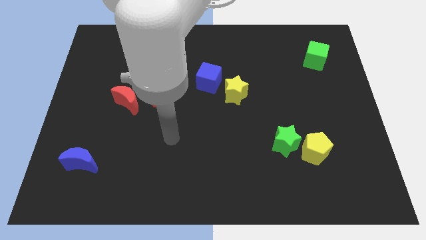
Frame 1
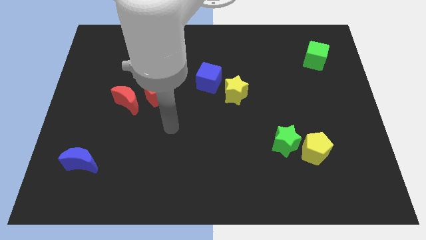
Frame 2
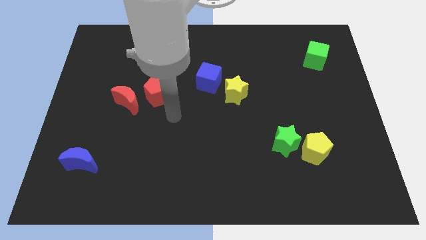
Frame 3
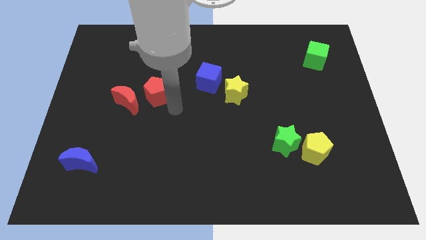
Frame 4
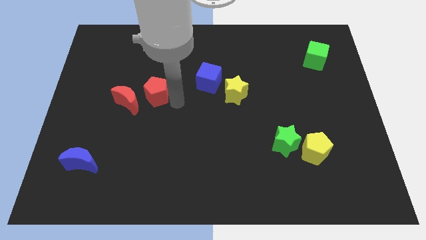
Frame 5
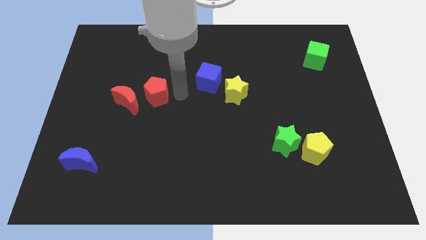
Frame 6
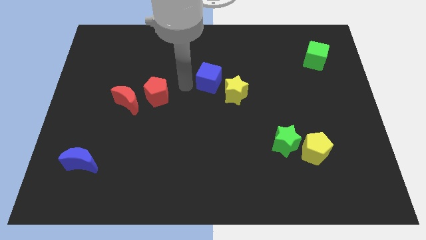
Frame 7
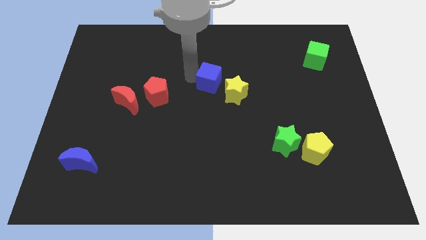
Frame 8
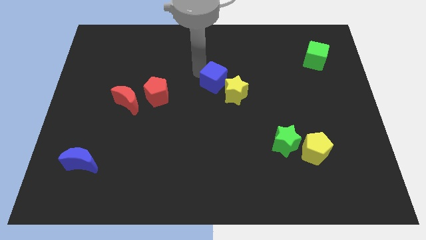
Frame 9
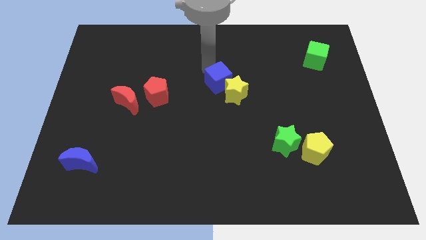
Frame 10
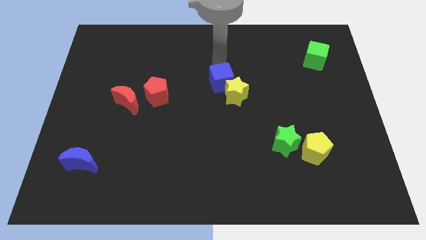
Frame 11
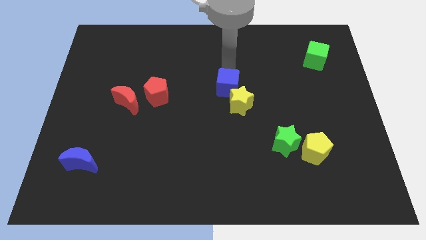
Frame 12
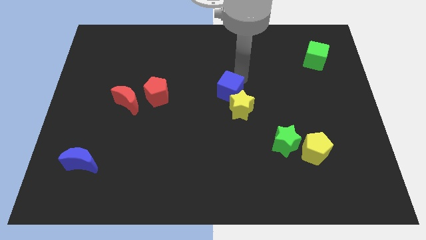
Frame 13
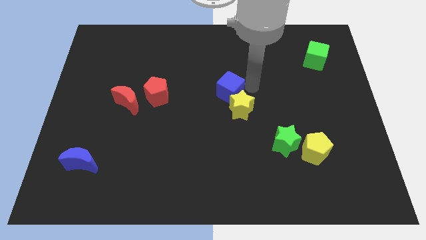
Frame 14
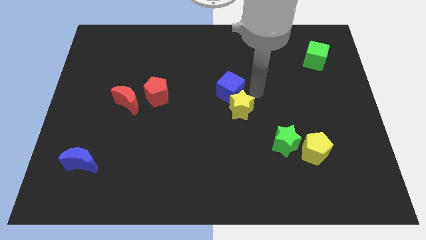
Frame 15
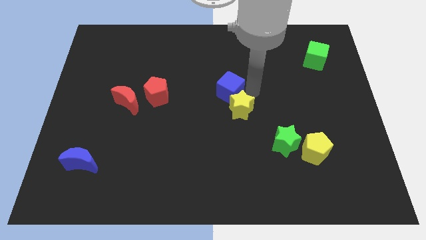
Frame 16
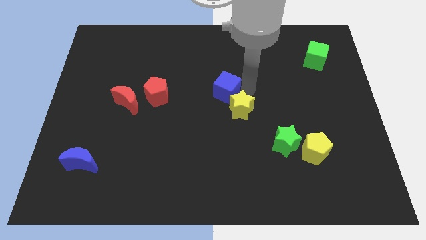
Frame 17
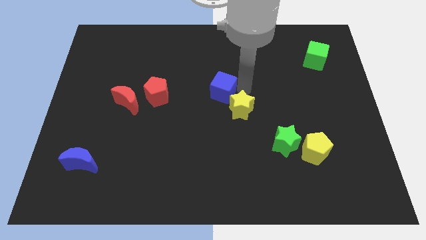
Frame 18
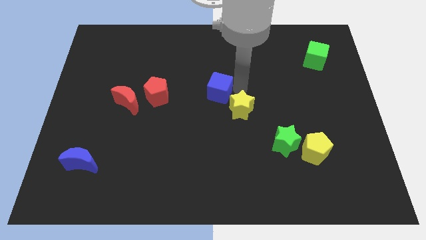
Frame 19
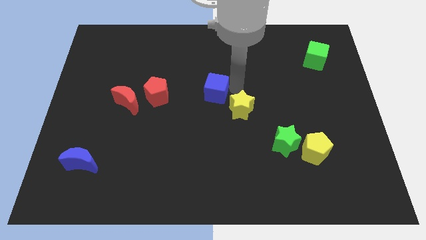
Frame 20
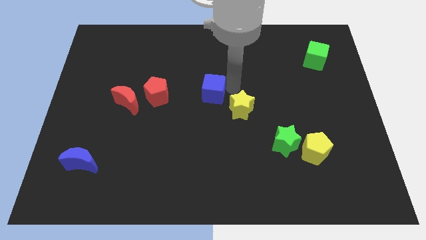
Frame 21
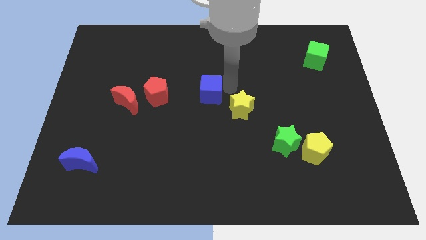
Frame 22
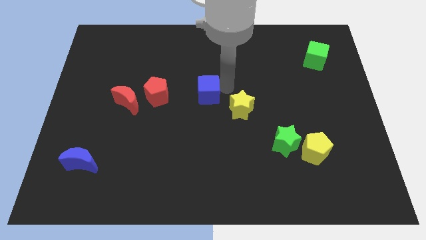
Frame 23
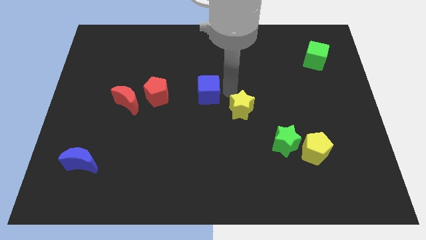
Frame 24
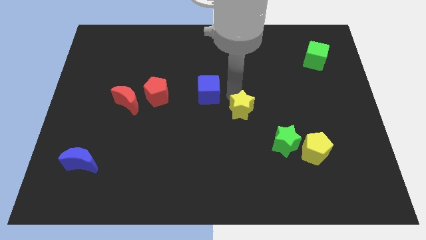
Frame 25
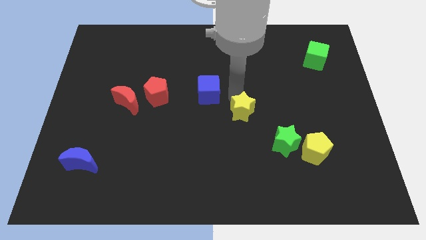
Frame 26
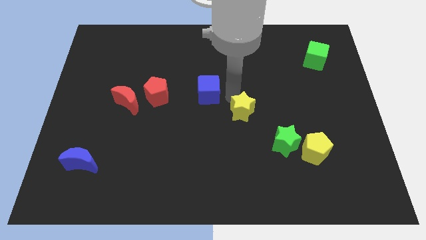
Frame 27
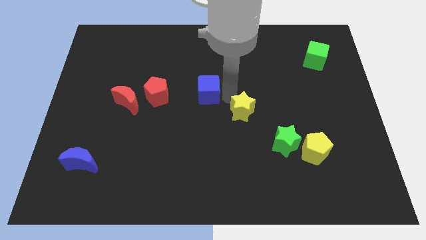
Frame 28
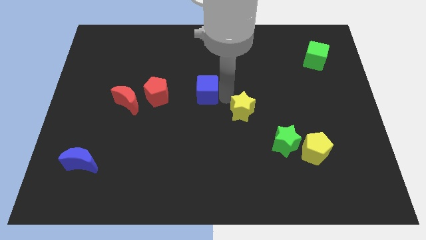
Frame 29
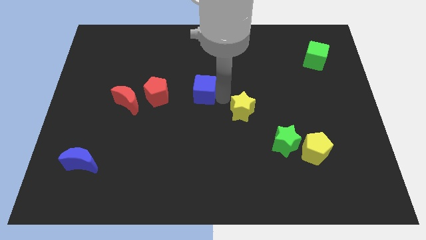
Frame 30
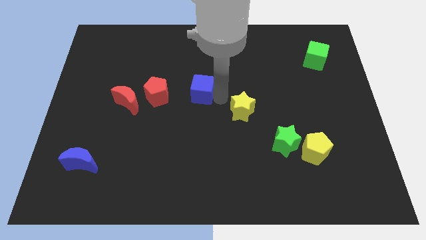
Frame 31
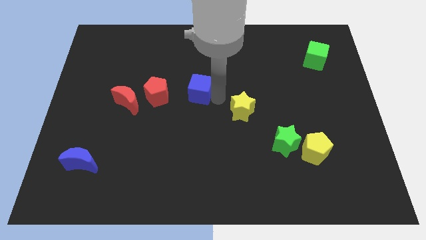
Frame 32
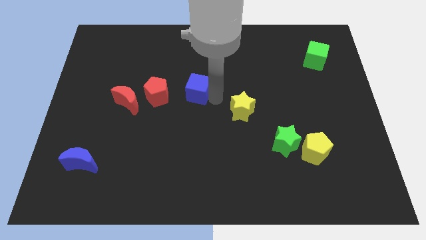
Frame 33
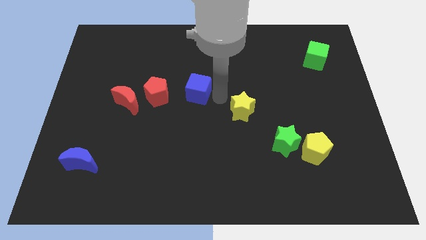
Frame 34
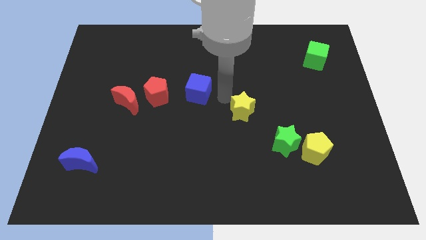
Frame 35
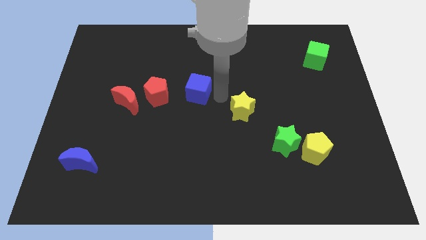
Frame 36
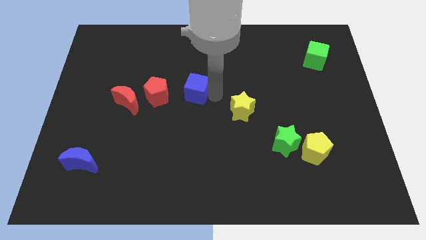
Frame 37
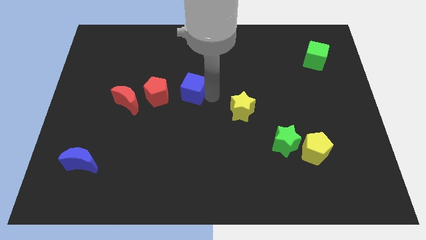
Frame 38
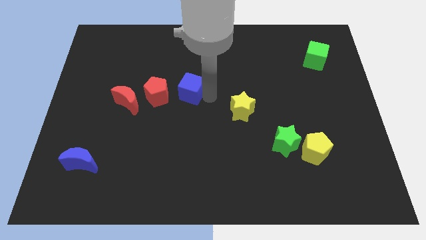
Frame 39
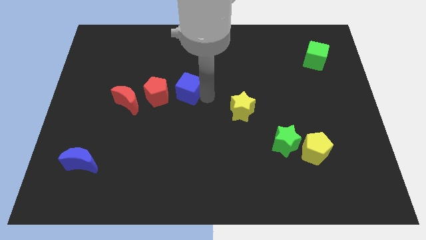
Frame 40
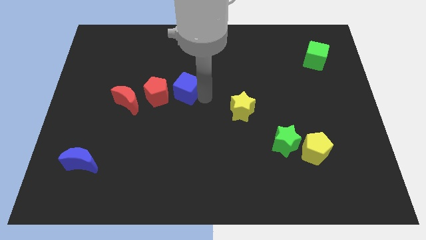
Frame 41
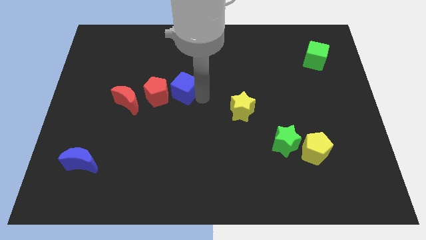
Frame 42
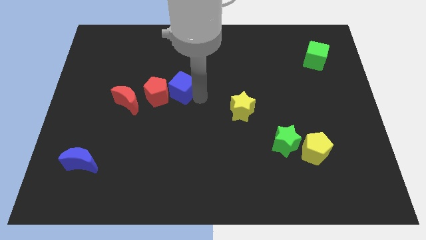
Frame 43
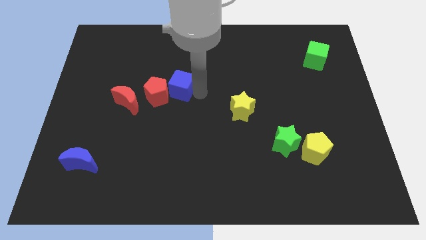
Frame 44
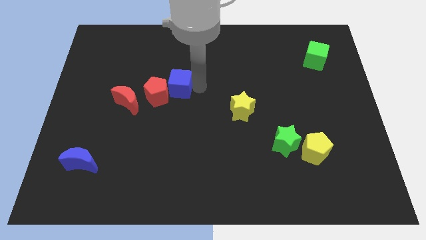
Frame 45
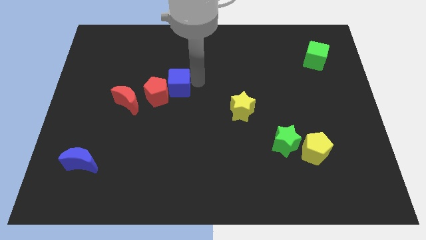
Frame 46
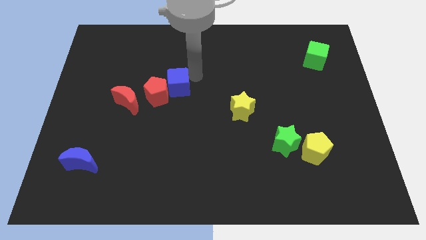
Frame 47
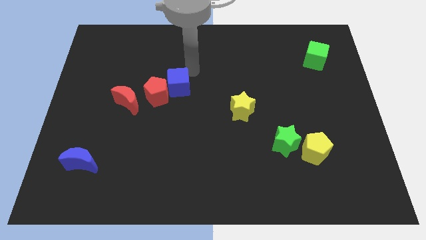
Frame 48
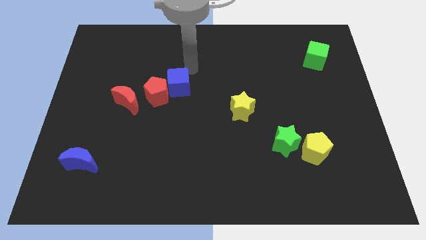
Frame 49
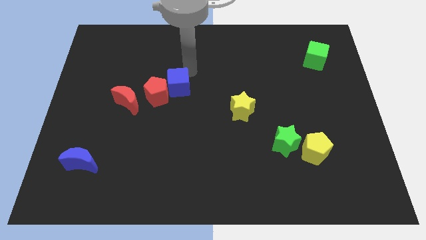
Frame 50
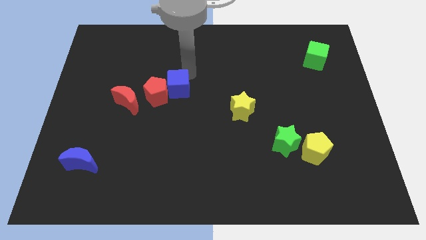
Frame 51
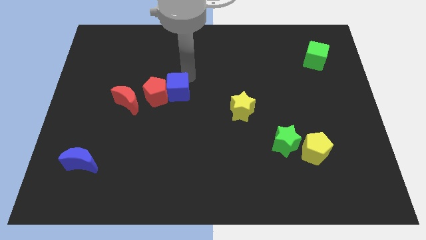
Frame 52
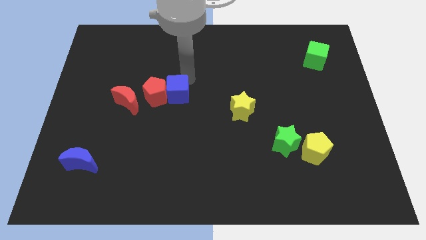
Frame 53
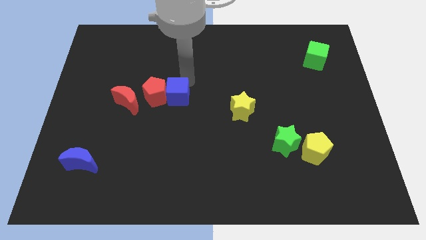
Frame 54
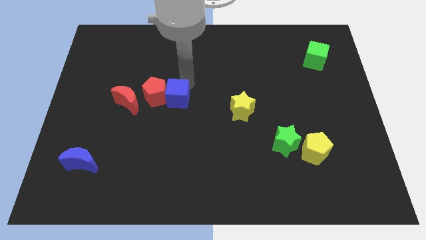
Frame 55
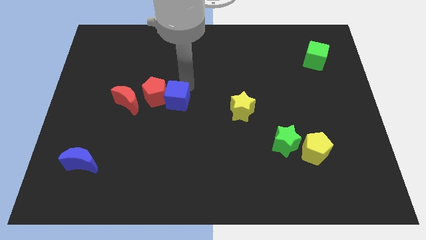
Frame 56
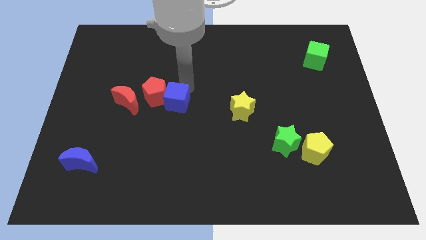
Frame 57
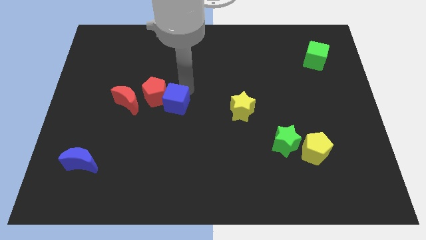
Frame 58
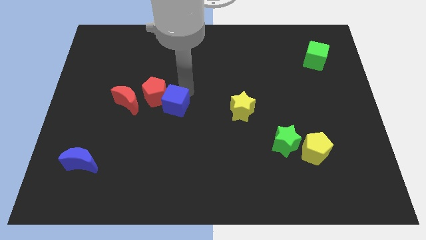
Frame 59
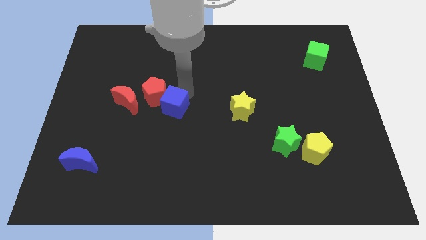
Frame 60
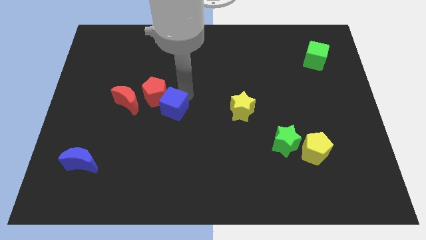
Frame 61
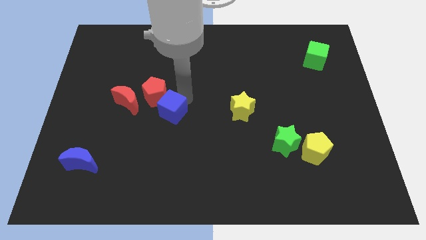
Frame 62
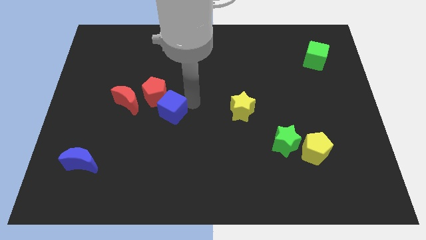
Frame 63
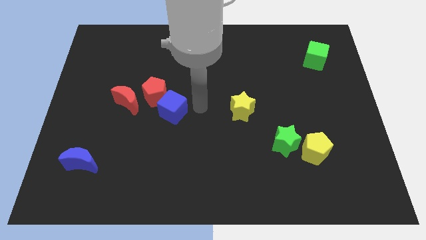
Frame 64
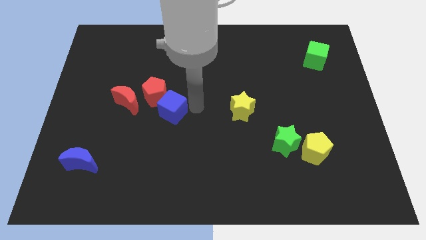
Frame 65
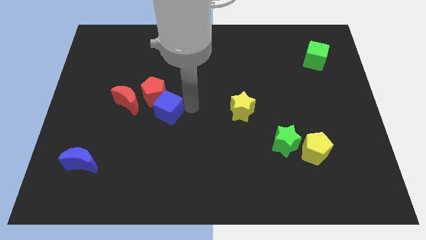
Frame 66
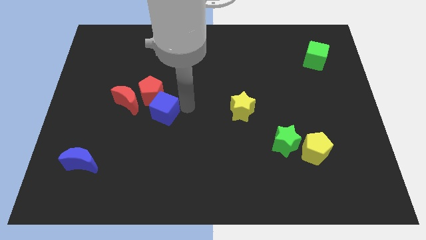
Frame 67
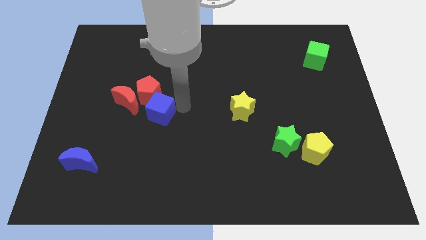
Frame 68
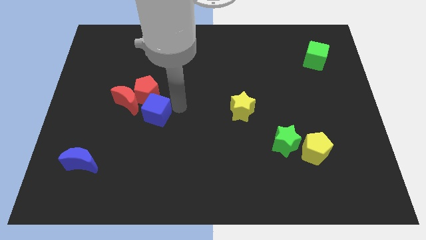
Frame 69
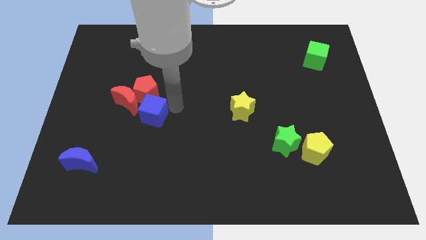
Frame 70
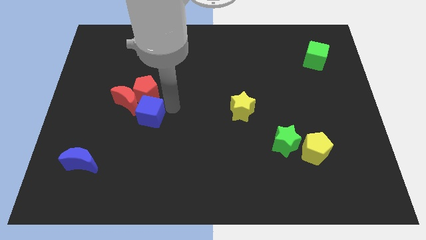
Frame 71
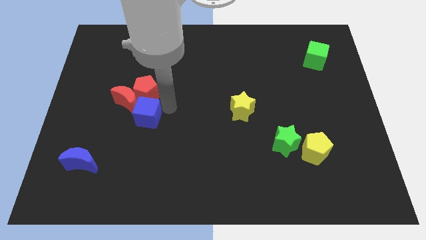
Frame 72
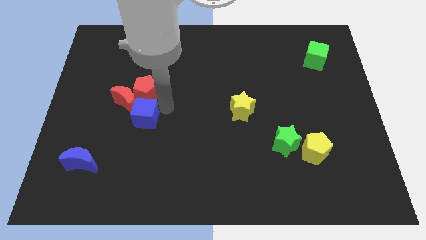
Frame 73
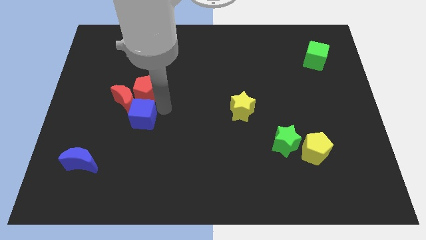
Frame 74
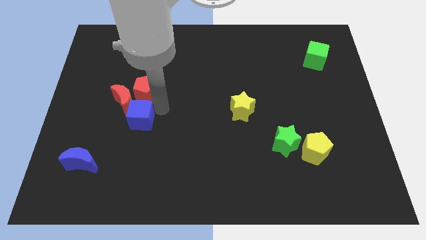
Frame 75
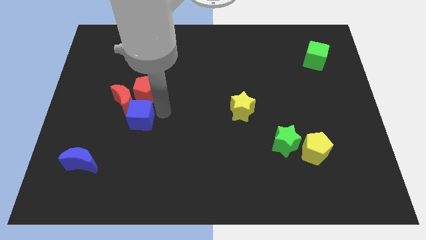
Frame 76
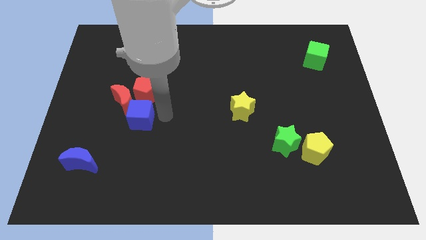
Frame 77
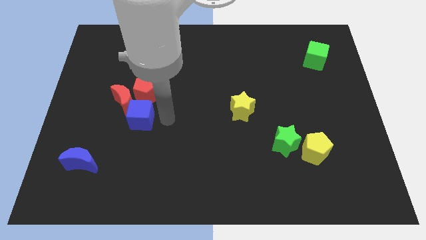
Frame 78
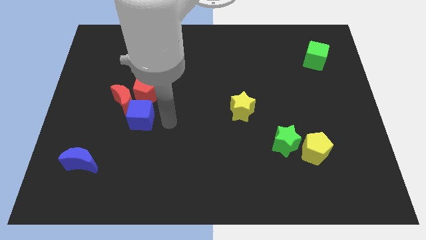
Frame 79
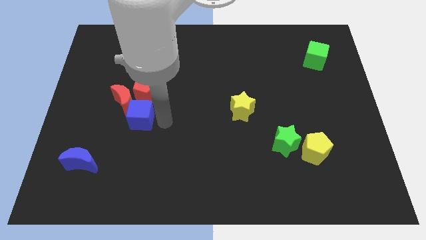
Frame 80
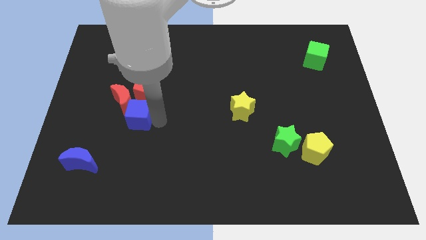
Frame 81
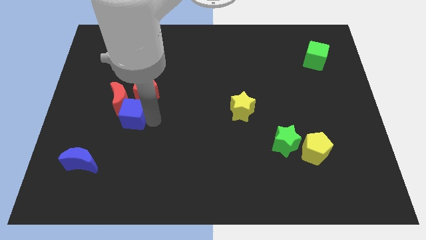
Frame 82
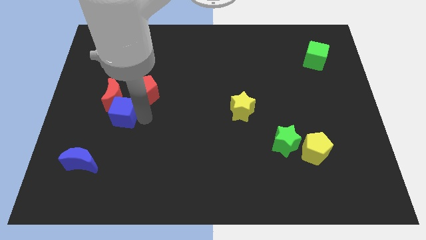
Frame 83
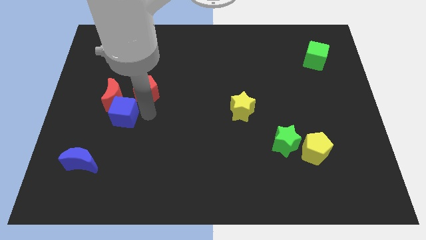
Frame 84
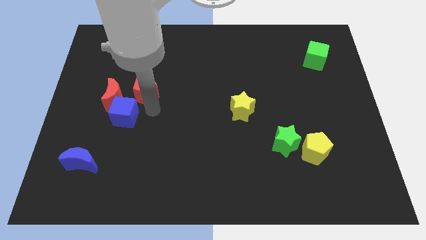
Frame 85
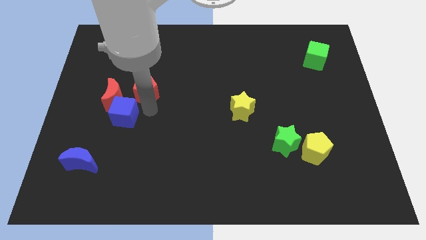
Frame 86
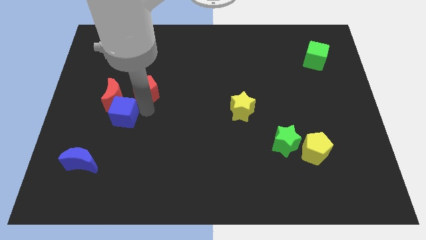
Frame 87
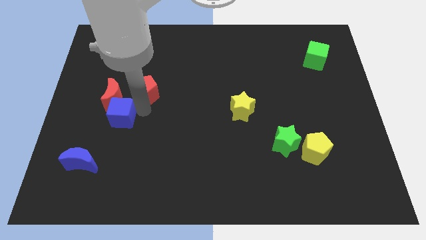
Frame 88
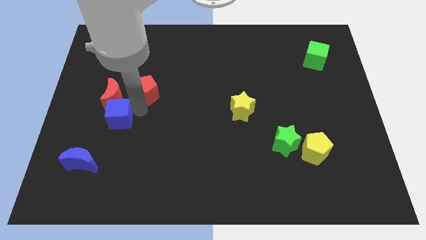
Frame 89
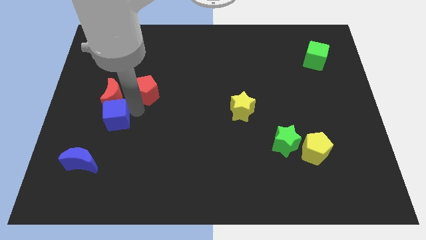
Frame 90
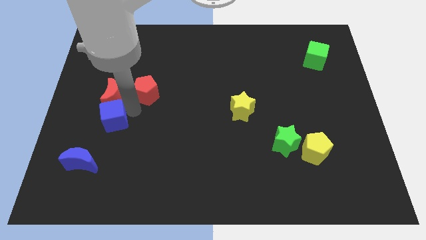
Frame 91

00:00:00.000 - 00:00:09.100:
slide the blue cube to the top of the blue moon
